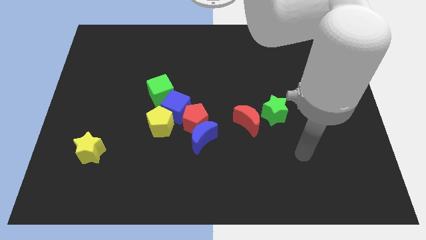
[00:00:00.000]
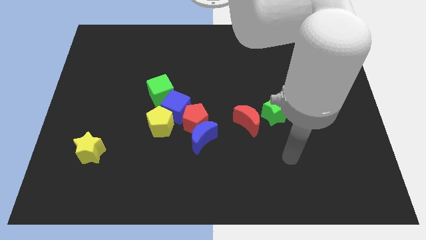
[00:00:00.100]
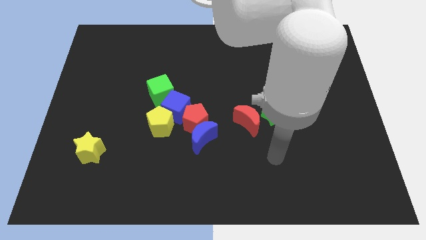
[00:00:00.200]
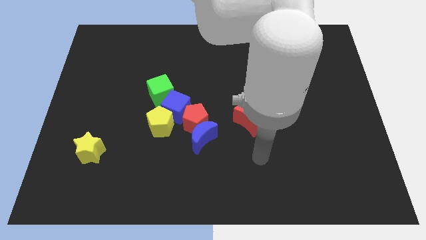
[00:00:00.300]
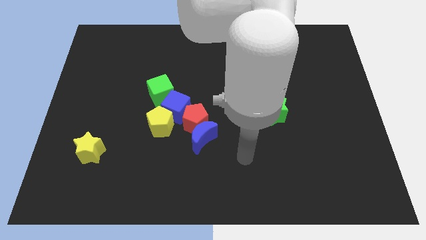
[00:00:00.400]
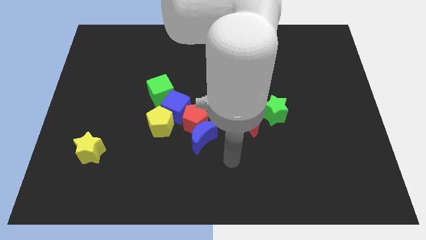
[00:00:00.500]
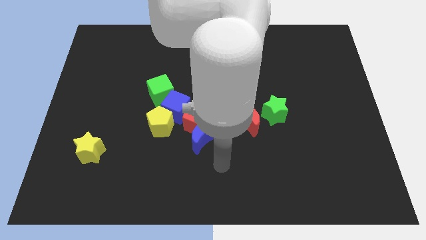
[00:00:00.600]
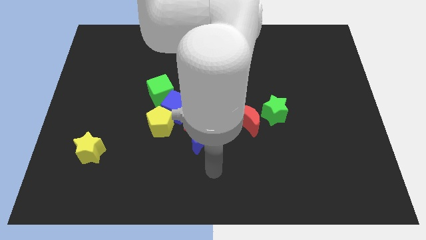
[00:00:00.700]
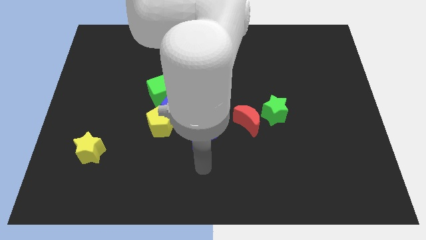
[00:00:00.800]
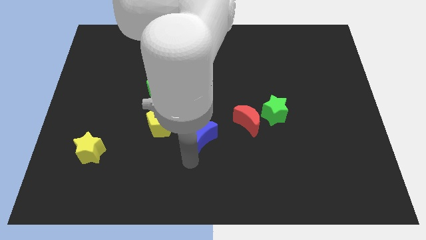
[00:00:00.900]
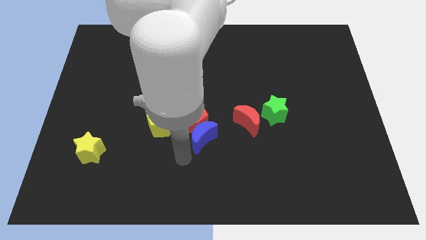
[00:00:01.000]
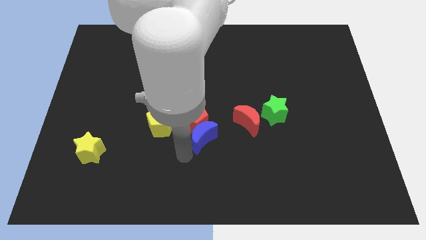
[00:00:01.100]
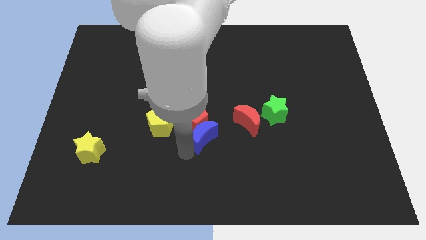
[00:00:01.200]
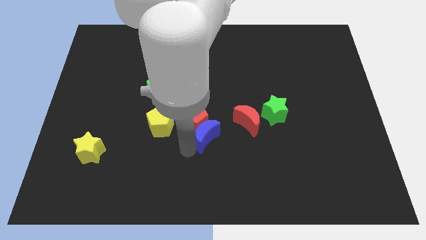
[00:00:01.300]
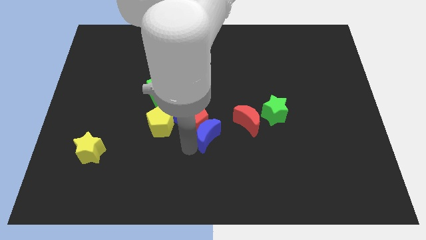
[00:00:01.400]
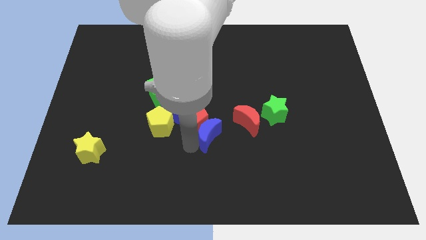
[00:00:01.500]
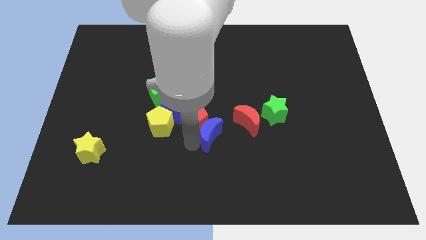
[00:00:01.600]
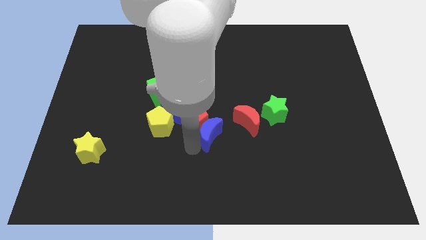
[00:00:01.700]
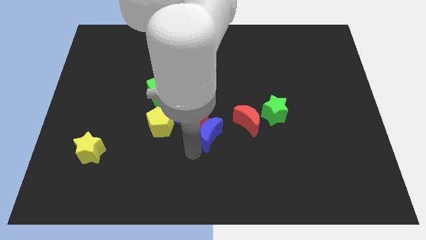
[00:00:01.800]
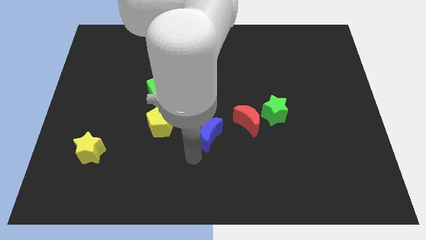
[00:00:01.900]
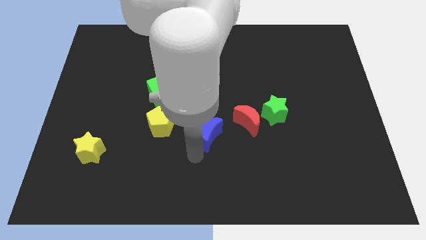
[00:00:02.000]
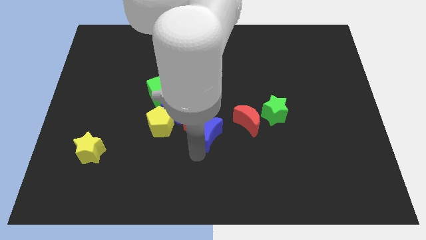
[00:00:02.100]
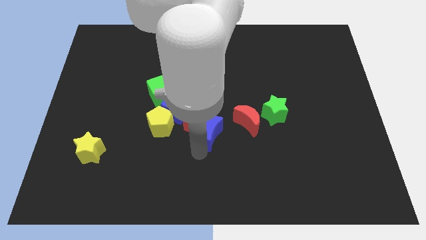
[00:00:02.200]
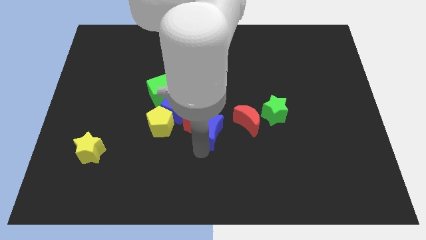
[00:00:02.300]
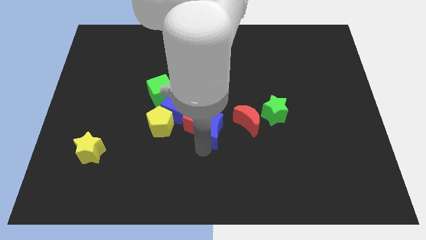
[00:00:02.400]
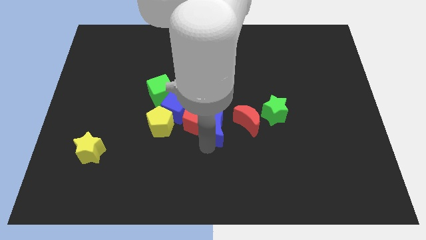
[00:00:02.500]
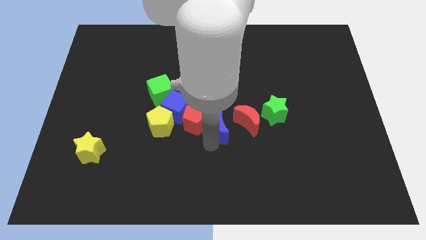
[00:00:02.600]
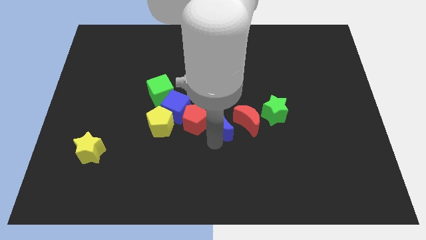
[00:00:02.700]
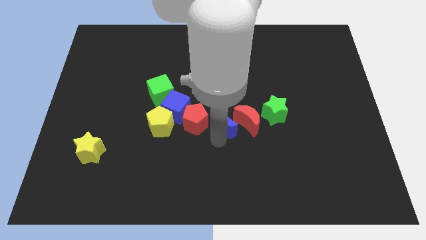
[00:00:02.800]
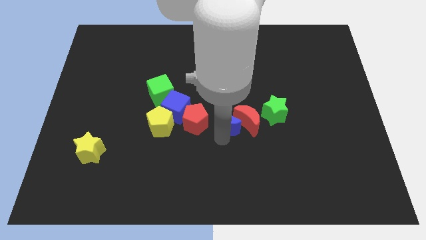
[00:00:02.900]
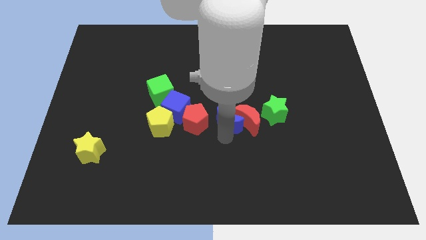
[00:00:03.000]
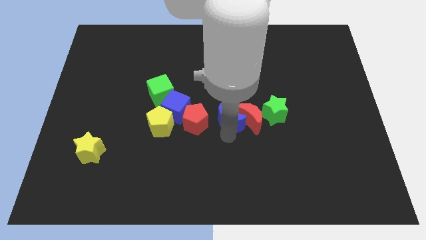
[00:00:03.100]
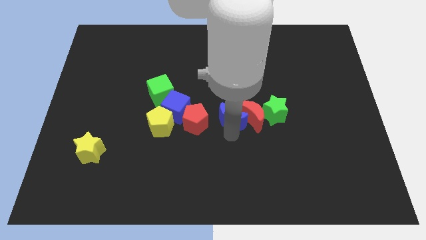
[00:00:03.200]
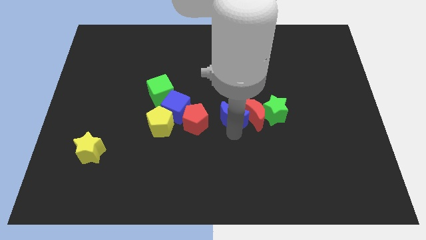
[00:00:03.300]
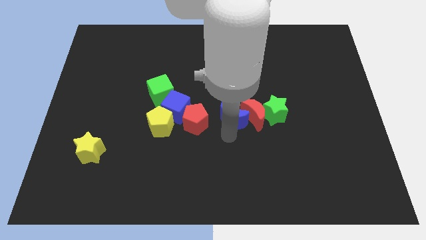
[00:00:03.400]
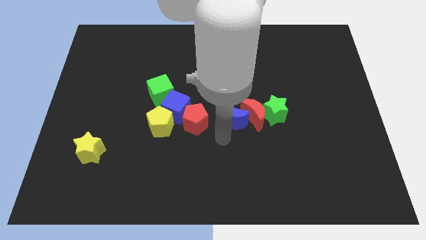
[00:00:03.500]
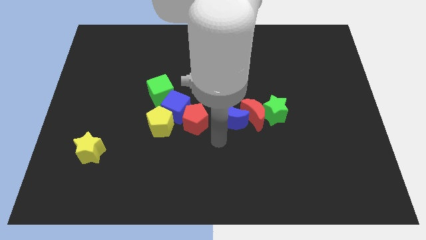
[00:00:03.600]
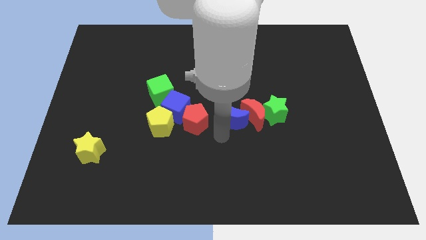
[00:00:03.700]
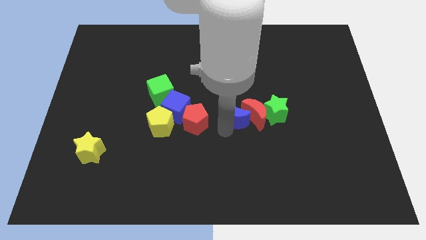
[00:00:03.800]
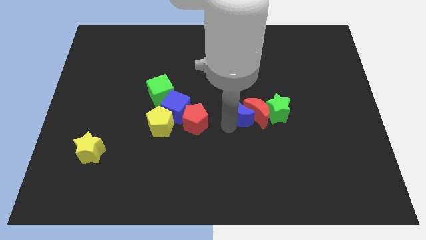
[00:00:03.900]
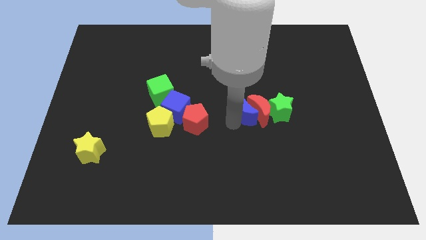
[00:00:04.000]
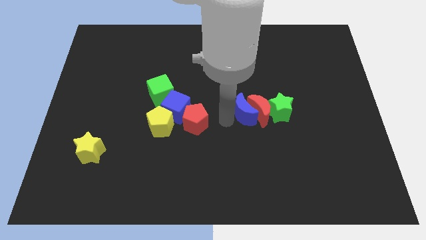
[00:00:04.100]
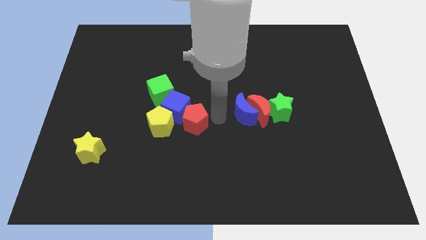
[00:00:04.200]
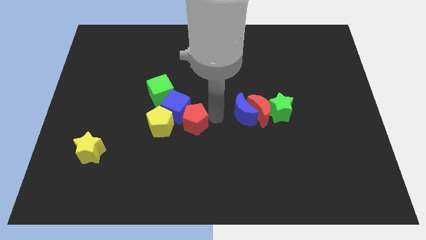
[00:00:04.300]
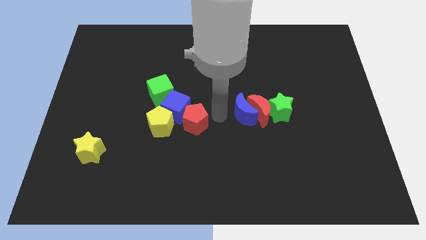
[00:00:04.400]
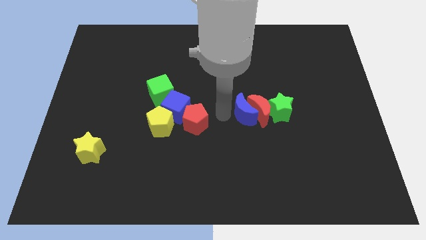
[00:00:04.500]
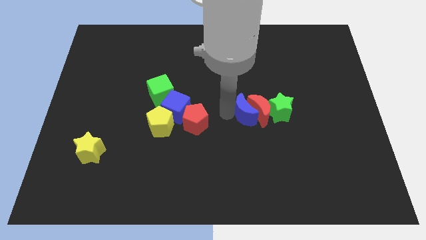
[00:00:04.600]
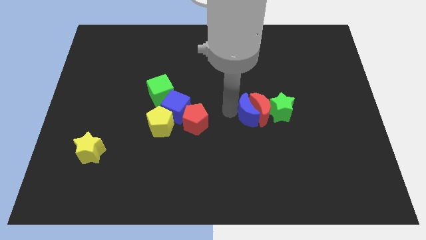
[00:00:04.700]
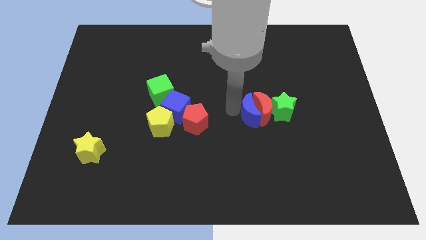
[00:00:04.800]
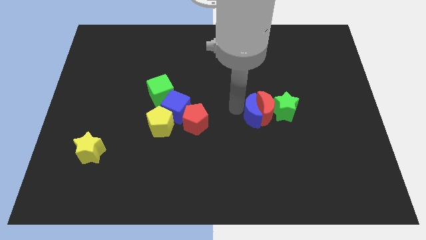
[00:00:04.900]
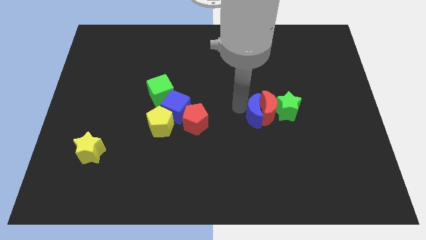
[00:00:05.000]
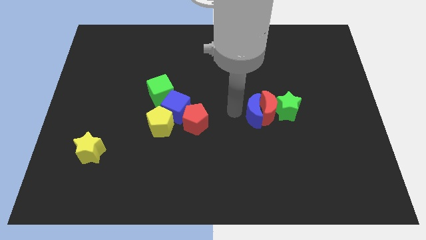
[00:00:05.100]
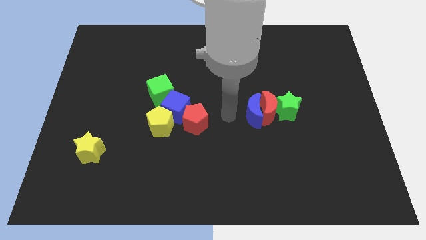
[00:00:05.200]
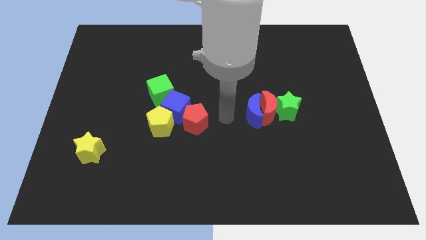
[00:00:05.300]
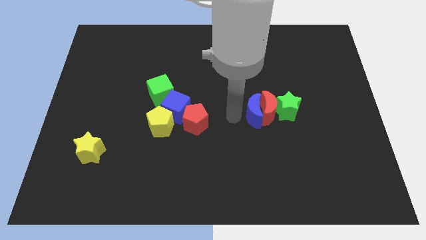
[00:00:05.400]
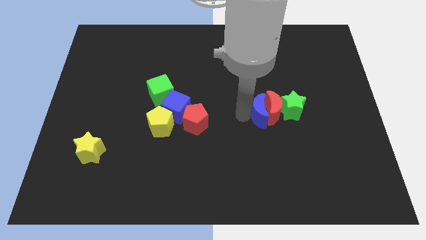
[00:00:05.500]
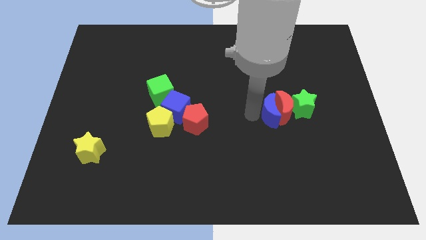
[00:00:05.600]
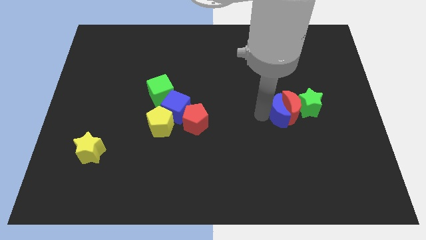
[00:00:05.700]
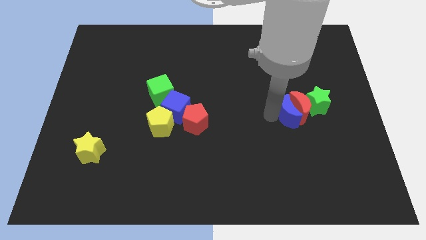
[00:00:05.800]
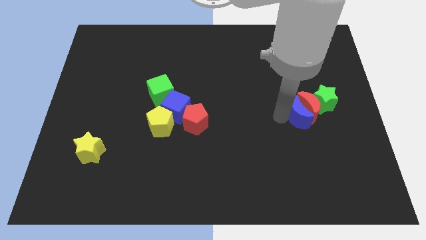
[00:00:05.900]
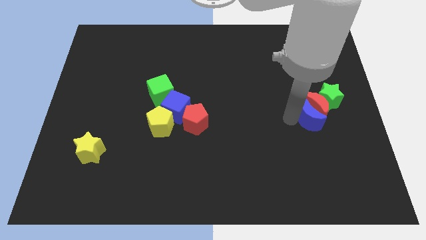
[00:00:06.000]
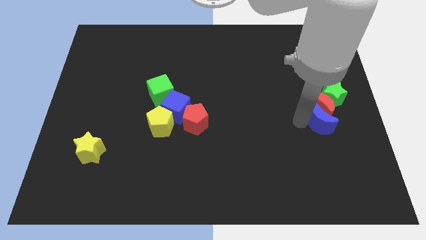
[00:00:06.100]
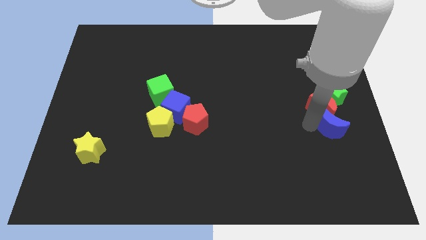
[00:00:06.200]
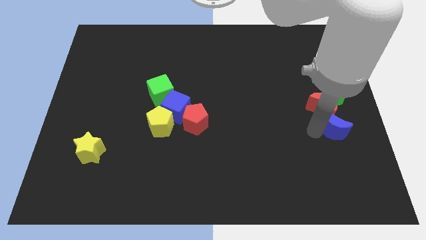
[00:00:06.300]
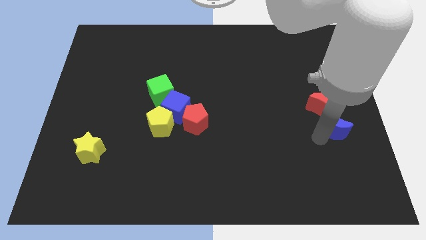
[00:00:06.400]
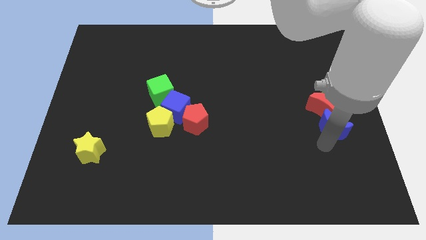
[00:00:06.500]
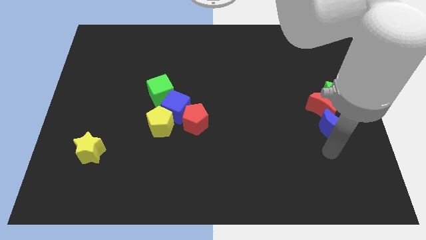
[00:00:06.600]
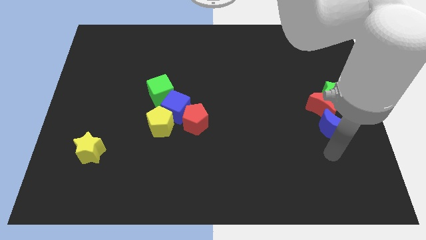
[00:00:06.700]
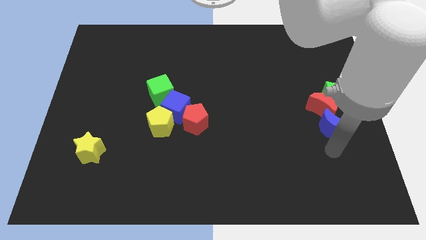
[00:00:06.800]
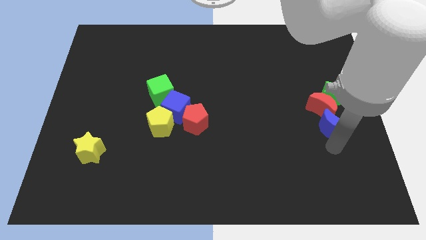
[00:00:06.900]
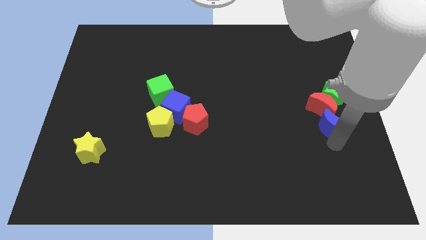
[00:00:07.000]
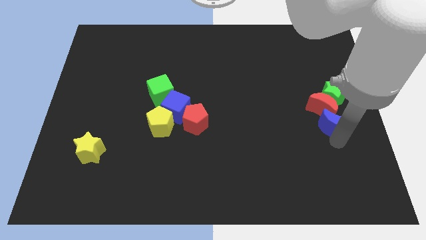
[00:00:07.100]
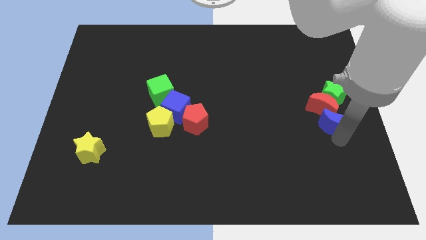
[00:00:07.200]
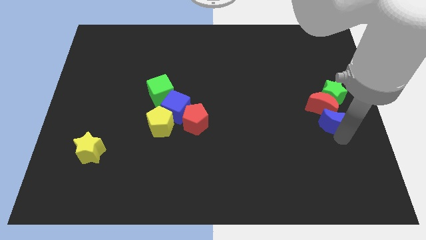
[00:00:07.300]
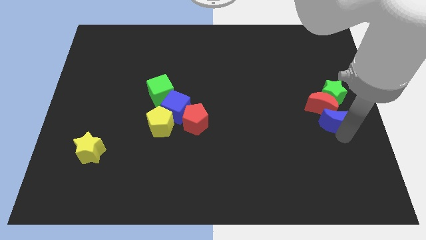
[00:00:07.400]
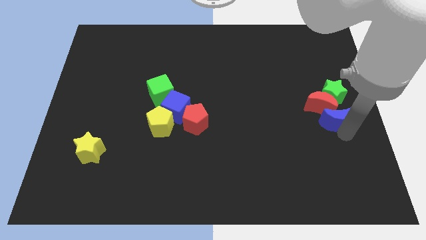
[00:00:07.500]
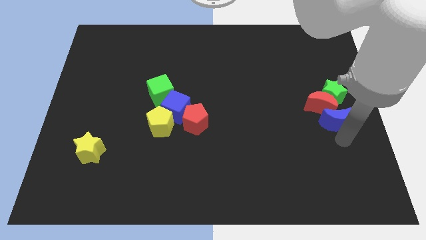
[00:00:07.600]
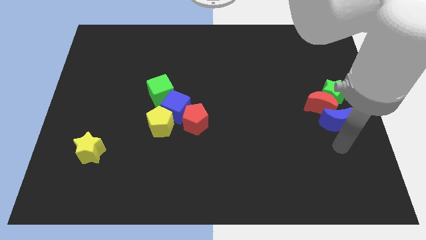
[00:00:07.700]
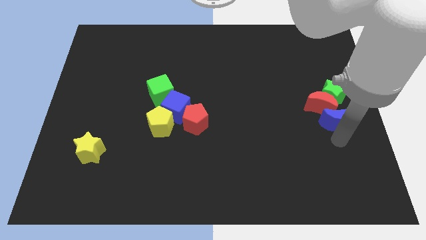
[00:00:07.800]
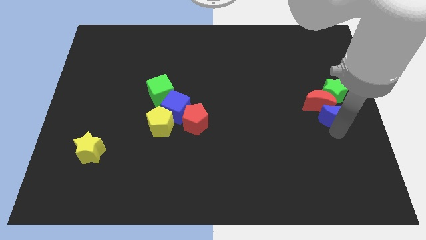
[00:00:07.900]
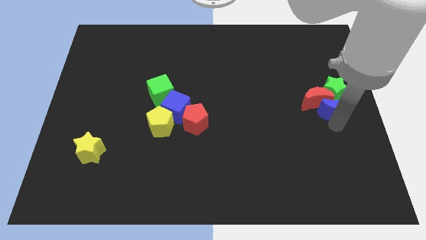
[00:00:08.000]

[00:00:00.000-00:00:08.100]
slide the blue moon to the green star
